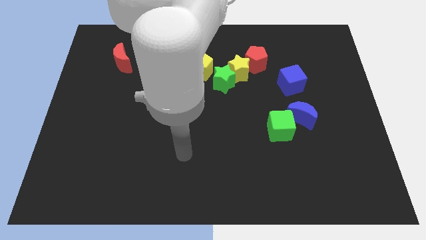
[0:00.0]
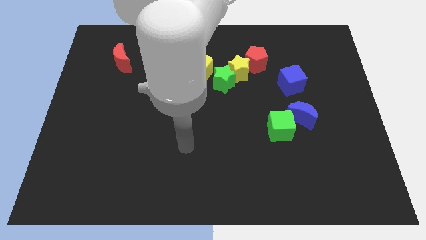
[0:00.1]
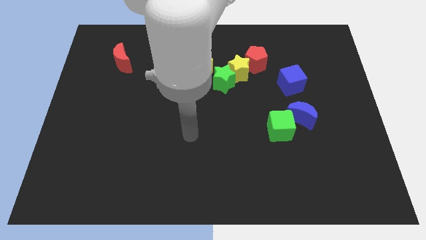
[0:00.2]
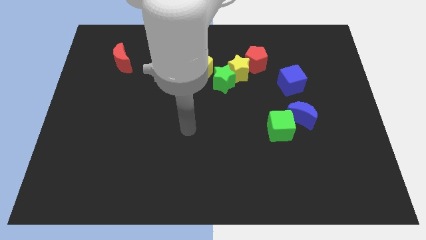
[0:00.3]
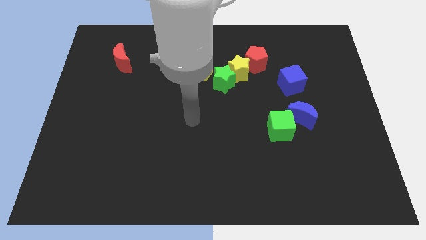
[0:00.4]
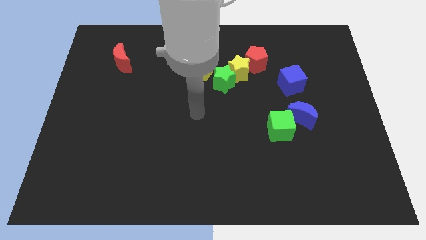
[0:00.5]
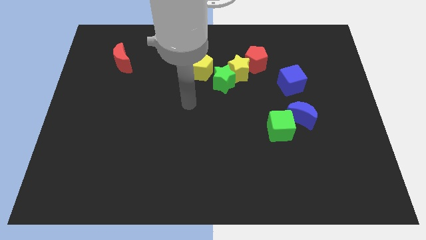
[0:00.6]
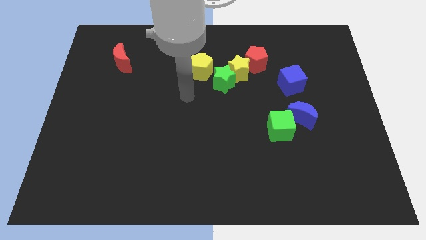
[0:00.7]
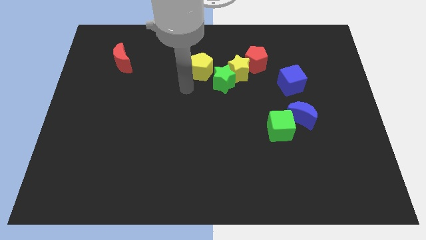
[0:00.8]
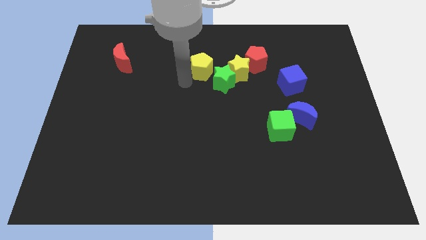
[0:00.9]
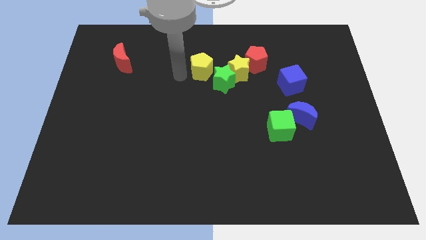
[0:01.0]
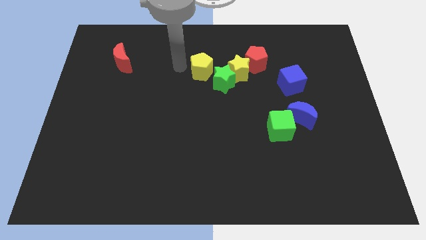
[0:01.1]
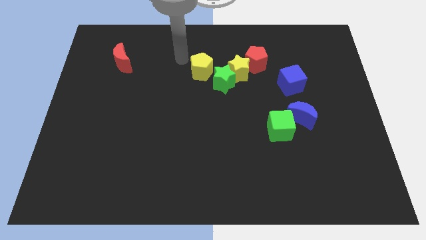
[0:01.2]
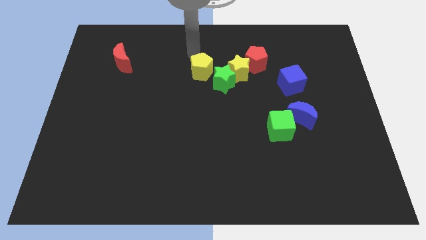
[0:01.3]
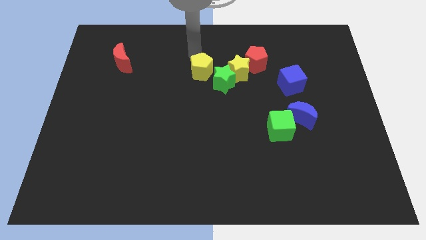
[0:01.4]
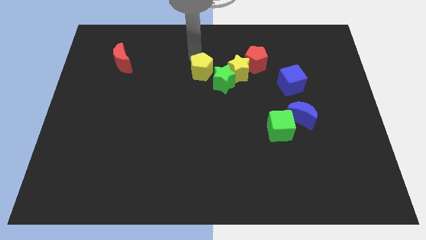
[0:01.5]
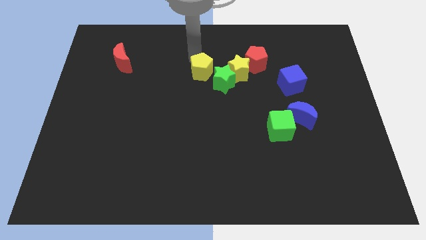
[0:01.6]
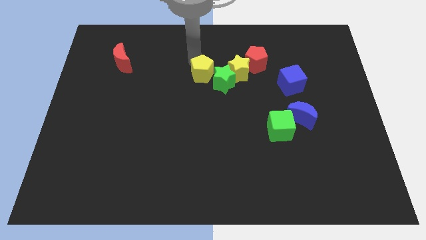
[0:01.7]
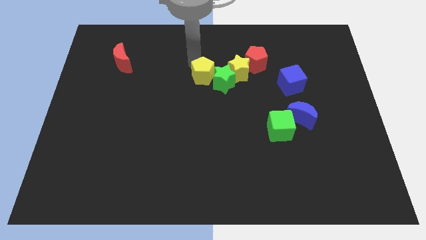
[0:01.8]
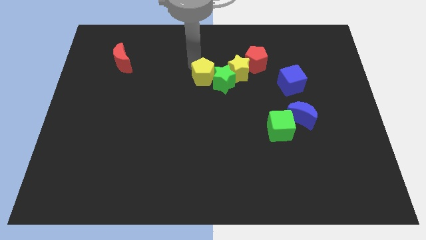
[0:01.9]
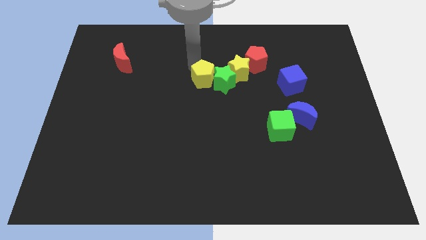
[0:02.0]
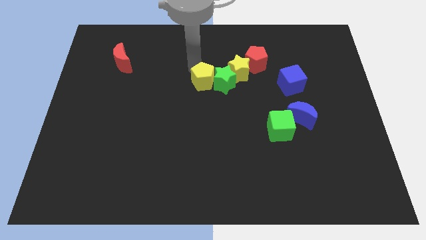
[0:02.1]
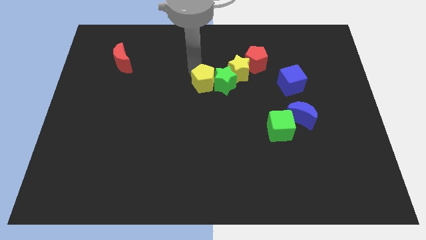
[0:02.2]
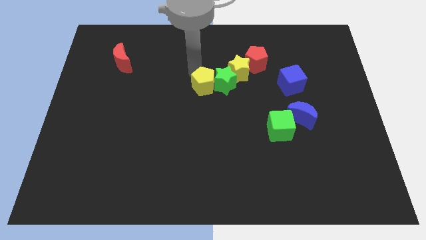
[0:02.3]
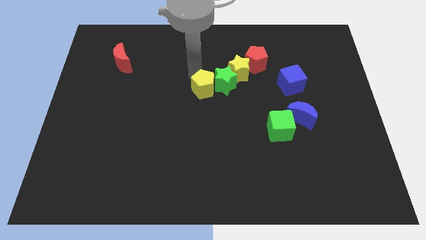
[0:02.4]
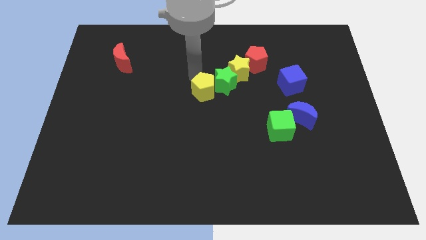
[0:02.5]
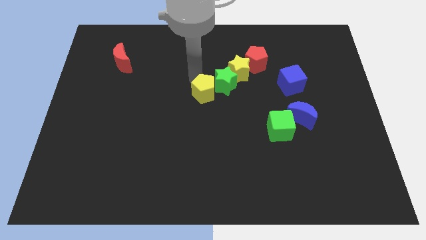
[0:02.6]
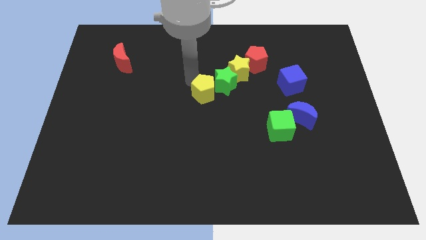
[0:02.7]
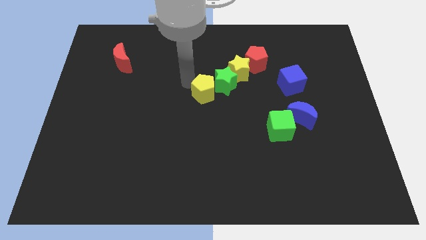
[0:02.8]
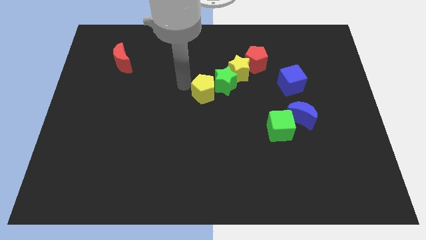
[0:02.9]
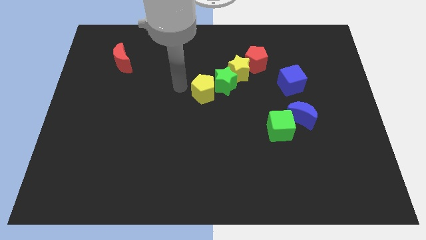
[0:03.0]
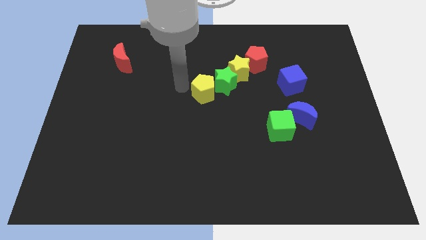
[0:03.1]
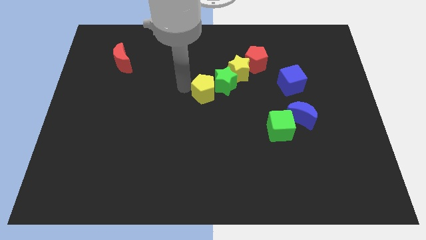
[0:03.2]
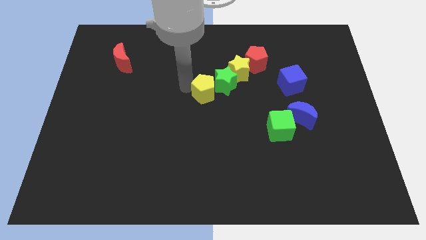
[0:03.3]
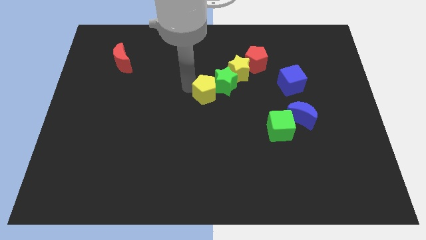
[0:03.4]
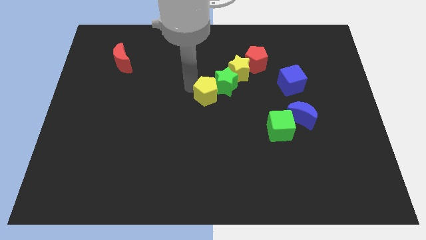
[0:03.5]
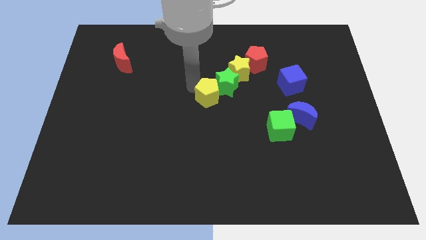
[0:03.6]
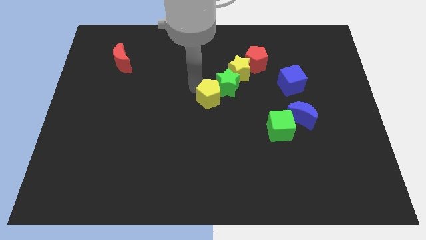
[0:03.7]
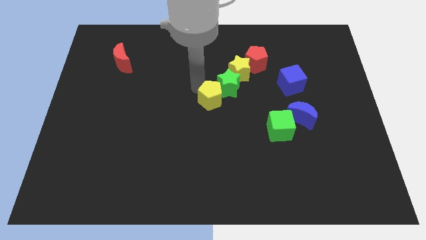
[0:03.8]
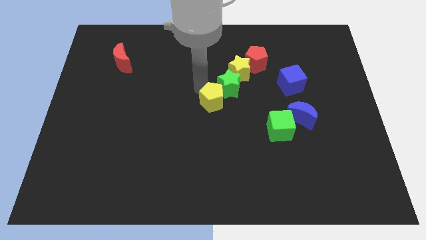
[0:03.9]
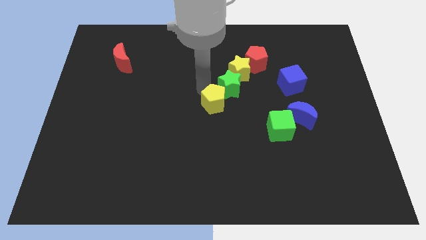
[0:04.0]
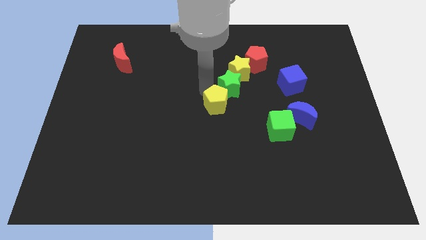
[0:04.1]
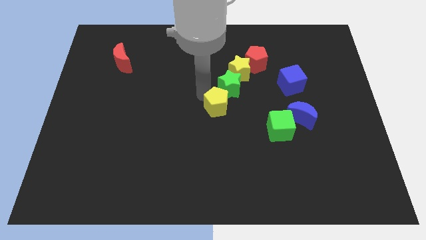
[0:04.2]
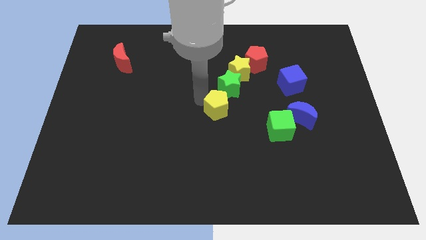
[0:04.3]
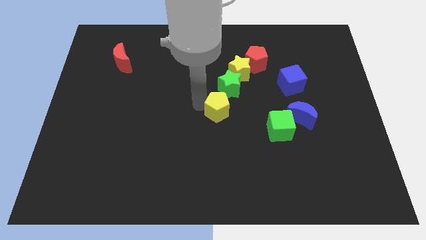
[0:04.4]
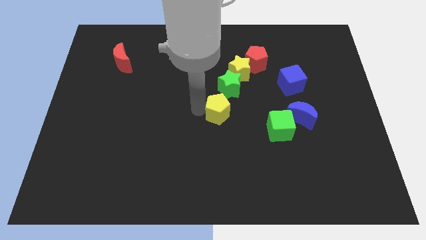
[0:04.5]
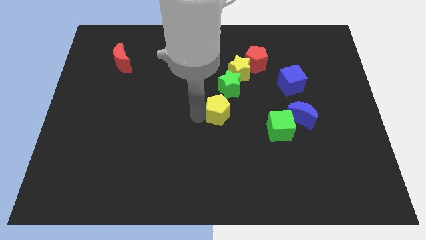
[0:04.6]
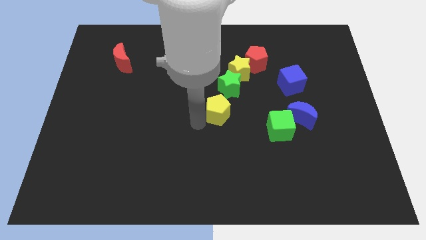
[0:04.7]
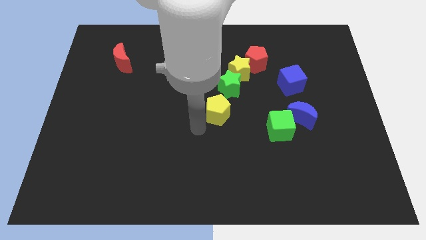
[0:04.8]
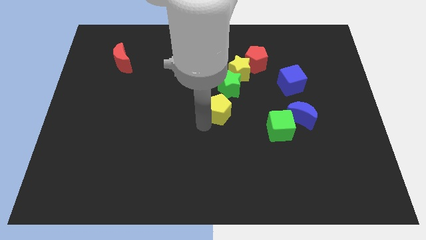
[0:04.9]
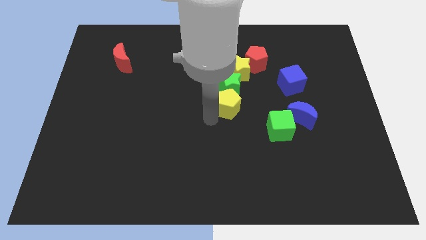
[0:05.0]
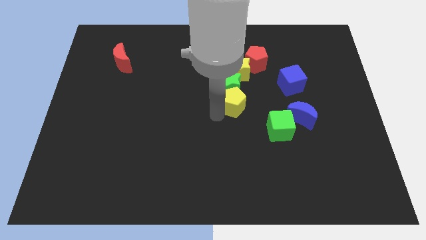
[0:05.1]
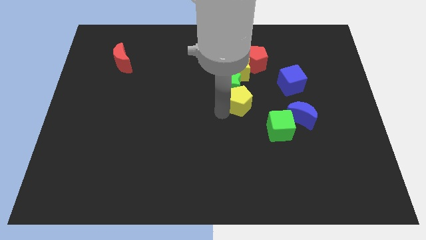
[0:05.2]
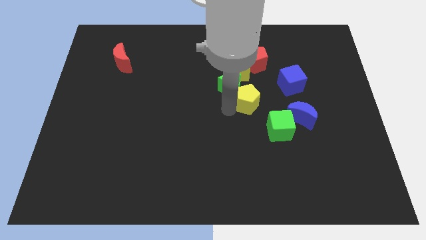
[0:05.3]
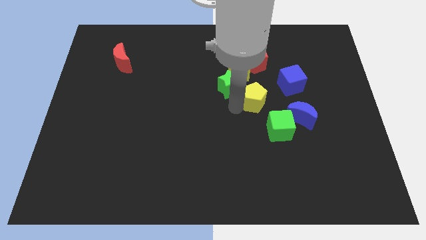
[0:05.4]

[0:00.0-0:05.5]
move the yellow pentagon to the bottom right of the yellow star

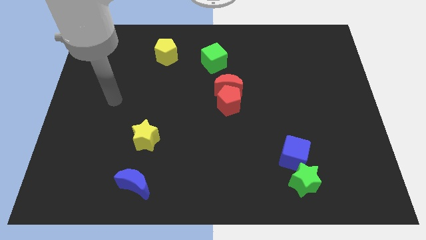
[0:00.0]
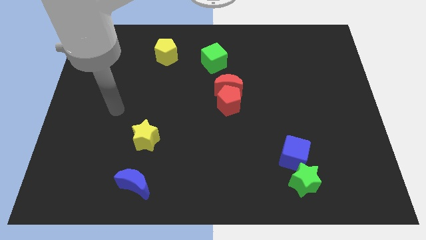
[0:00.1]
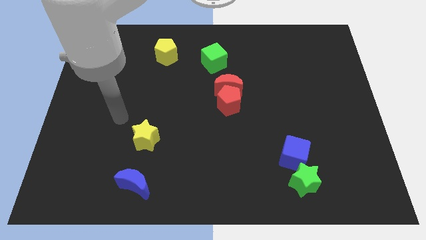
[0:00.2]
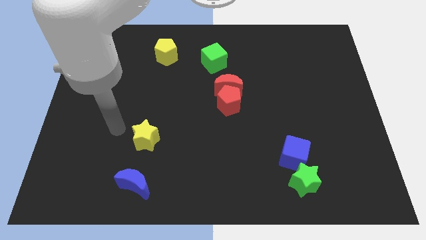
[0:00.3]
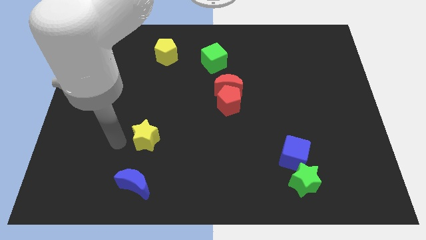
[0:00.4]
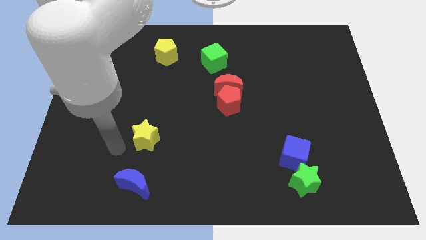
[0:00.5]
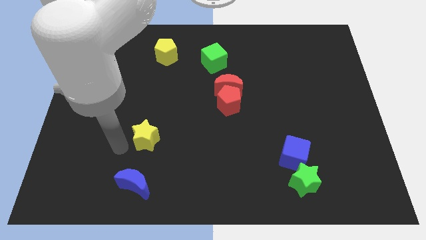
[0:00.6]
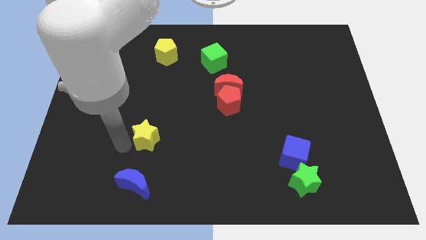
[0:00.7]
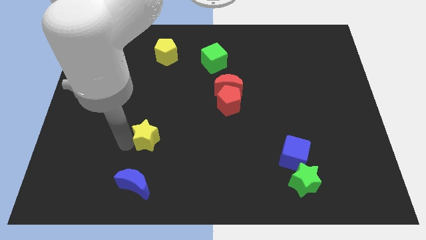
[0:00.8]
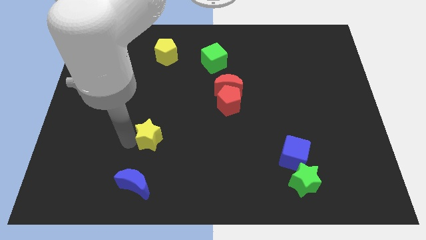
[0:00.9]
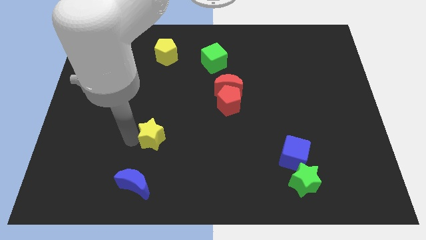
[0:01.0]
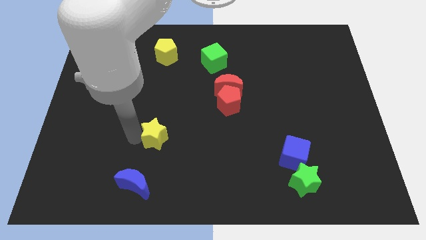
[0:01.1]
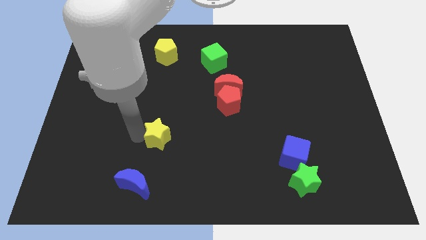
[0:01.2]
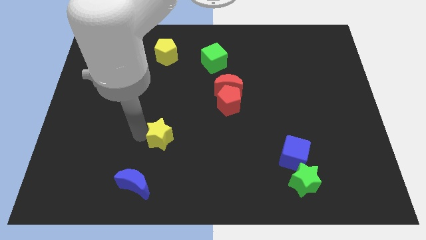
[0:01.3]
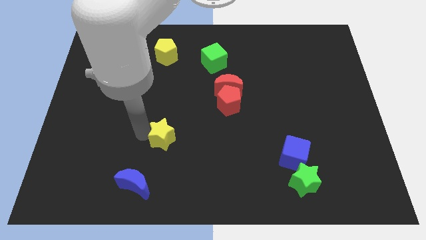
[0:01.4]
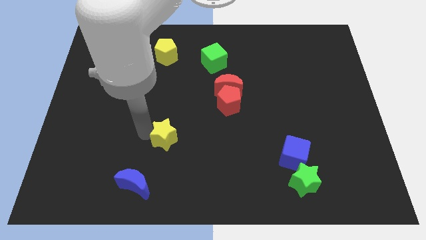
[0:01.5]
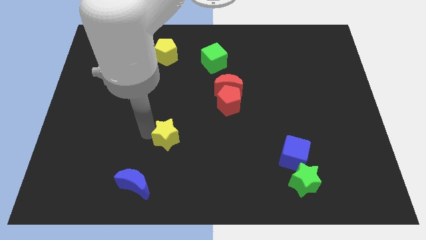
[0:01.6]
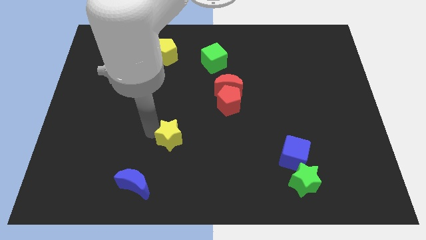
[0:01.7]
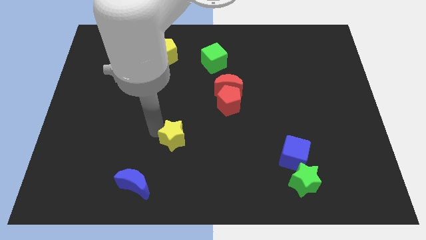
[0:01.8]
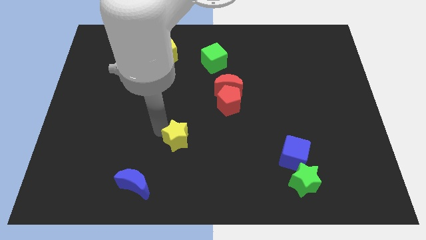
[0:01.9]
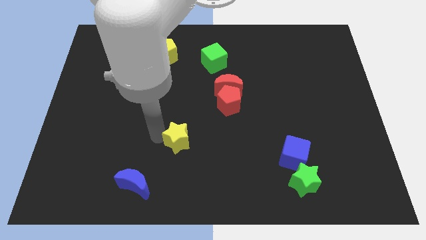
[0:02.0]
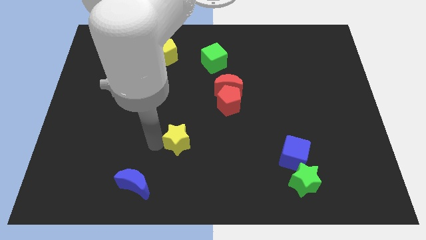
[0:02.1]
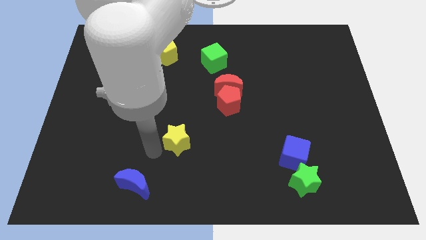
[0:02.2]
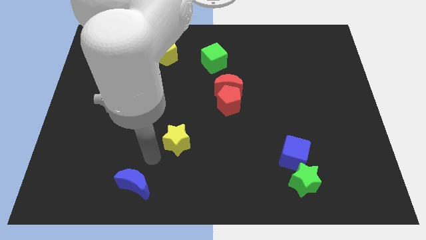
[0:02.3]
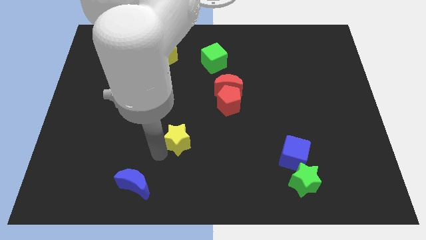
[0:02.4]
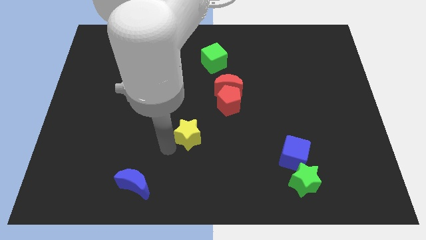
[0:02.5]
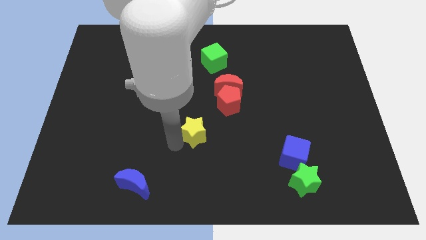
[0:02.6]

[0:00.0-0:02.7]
push the yellow star diagonally down and to the left of the red pentagon
